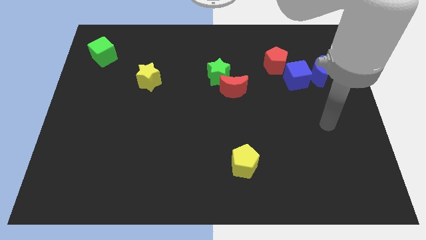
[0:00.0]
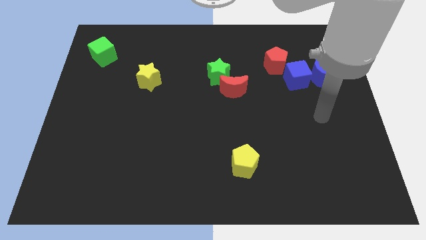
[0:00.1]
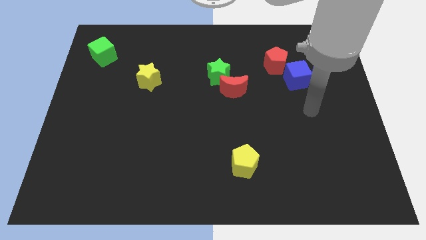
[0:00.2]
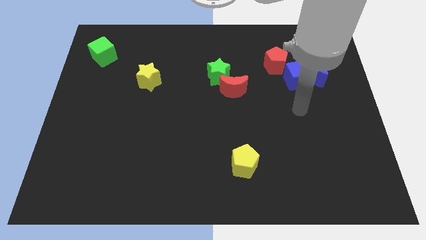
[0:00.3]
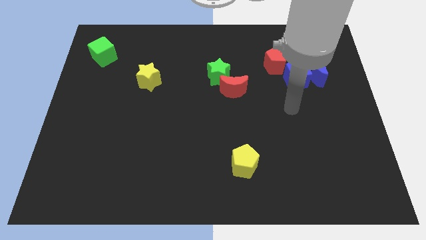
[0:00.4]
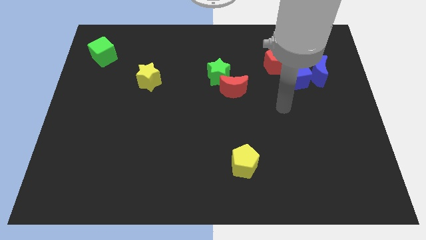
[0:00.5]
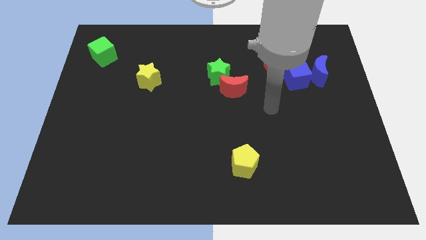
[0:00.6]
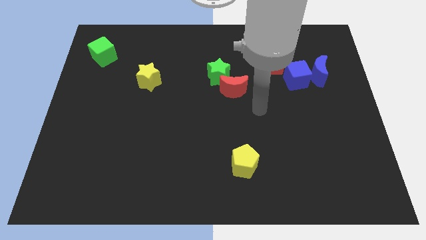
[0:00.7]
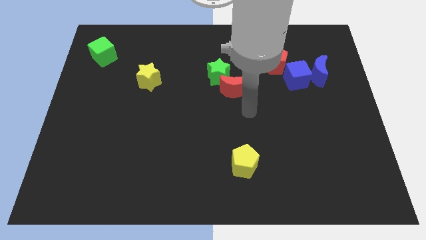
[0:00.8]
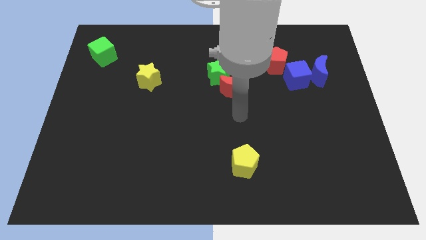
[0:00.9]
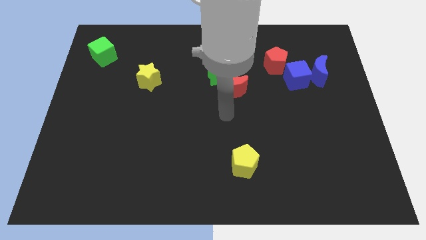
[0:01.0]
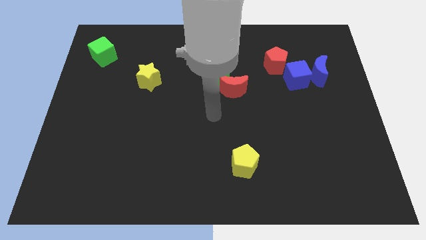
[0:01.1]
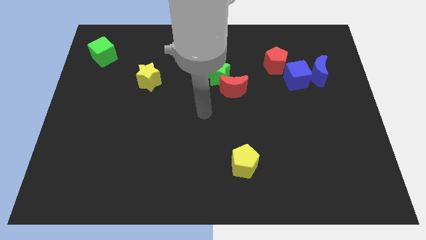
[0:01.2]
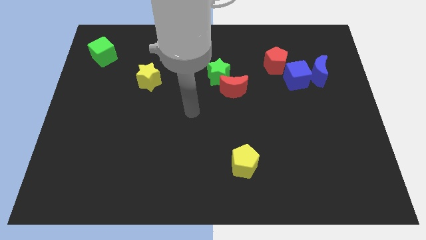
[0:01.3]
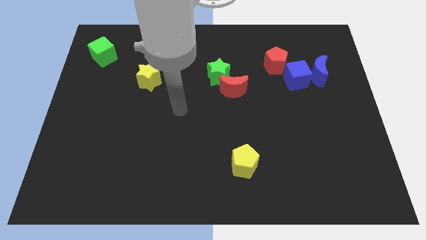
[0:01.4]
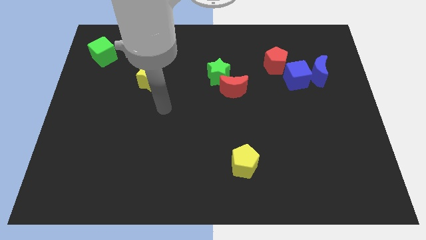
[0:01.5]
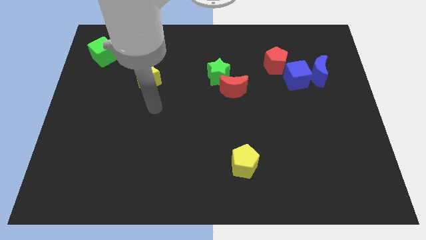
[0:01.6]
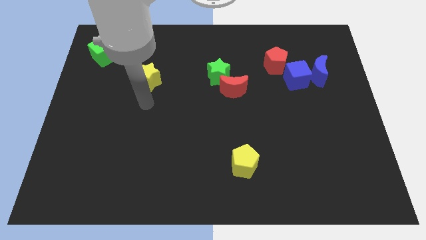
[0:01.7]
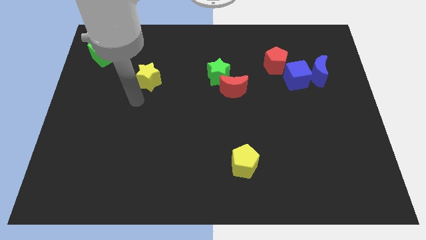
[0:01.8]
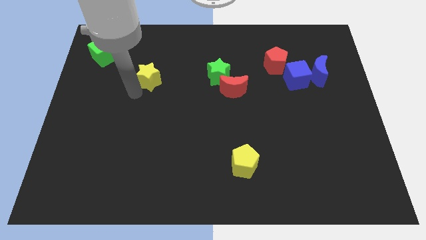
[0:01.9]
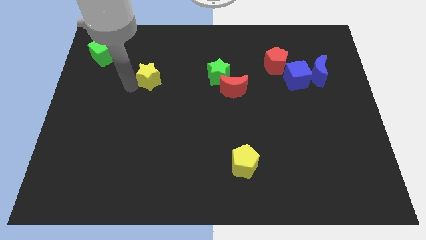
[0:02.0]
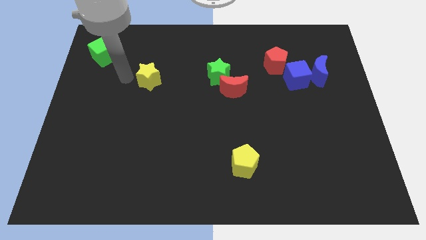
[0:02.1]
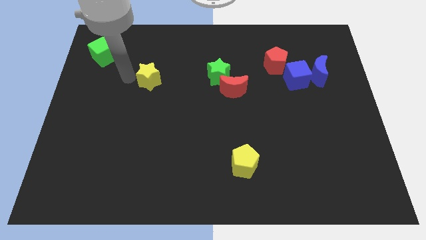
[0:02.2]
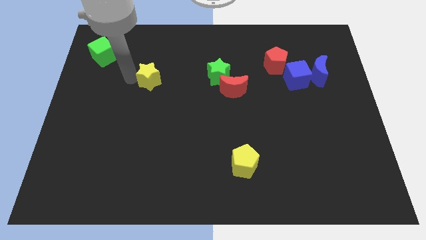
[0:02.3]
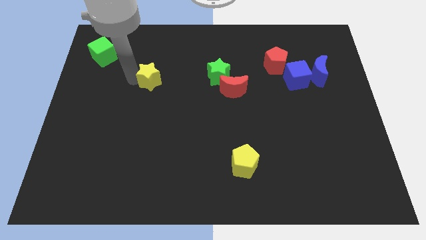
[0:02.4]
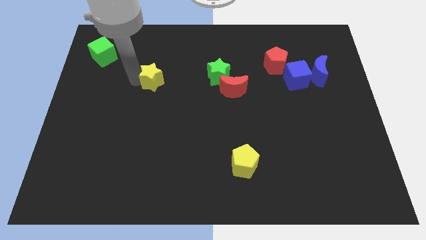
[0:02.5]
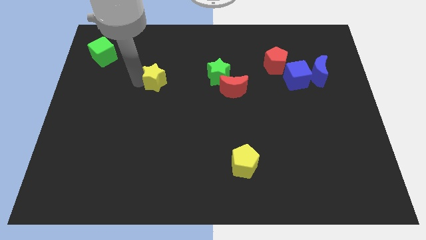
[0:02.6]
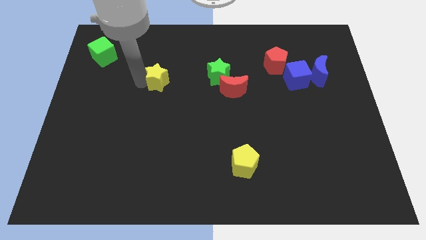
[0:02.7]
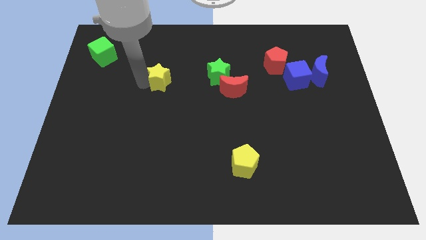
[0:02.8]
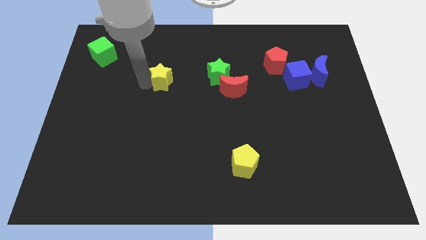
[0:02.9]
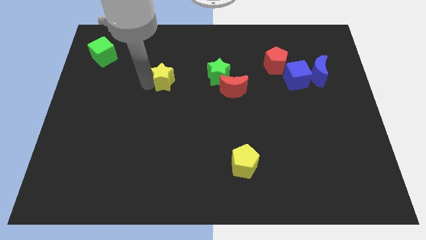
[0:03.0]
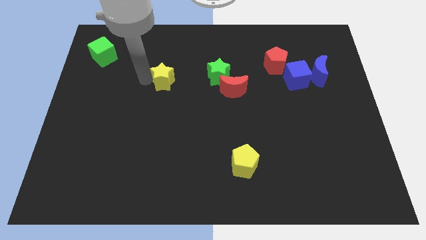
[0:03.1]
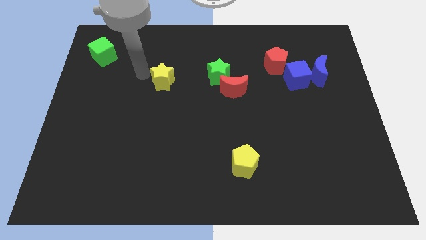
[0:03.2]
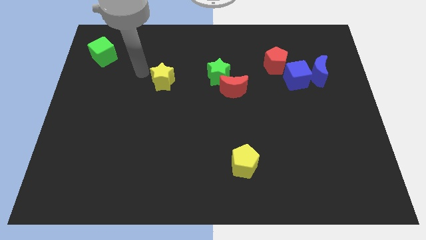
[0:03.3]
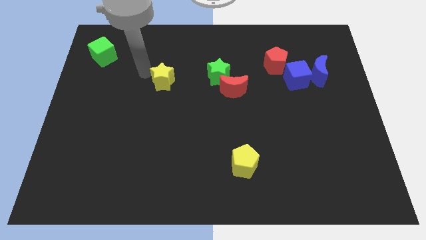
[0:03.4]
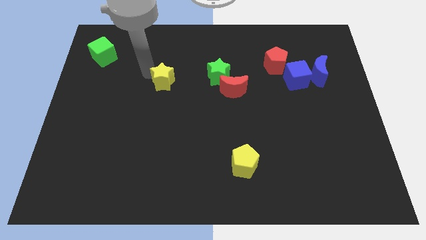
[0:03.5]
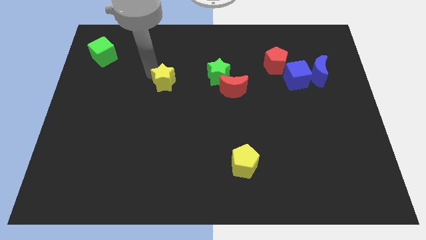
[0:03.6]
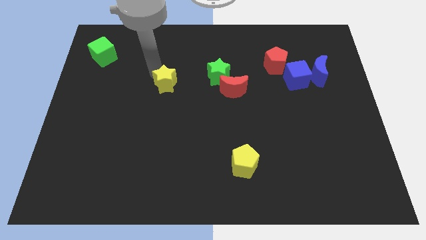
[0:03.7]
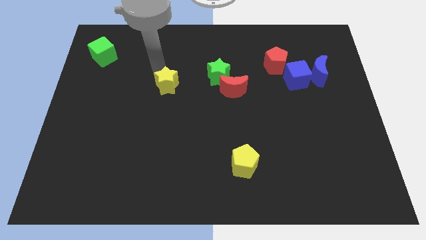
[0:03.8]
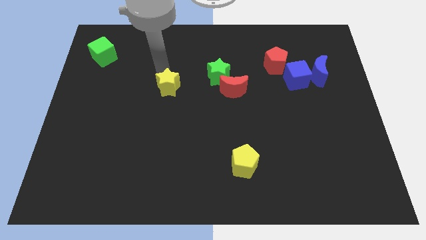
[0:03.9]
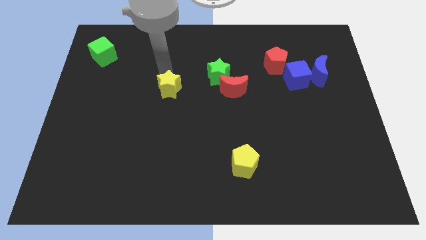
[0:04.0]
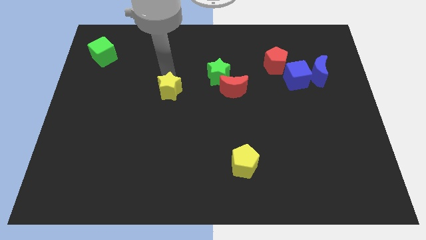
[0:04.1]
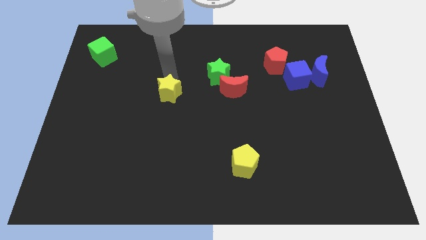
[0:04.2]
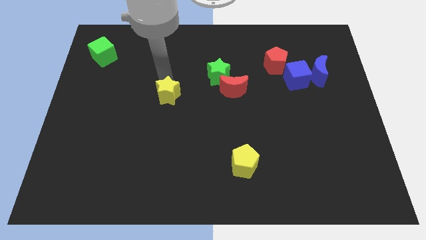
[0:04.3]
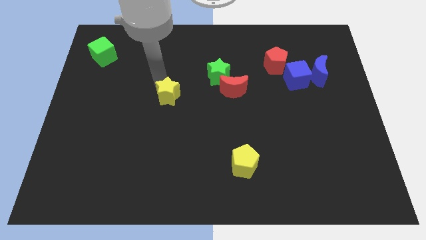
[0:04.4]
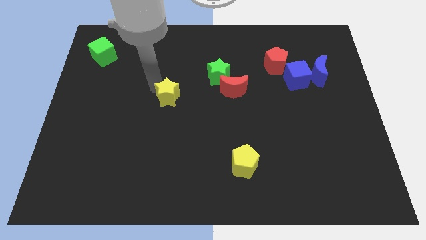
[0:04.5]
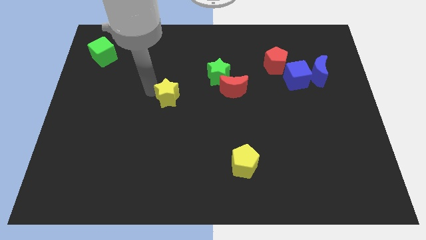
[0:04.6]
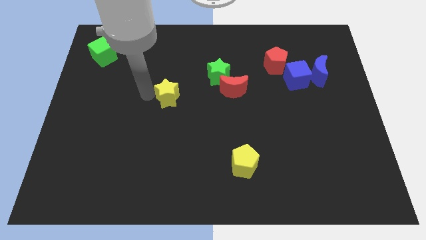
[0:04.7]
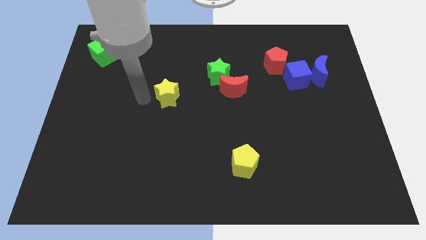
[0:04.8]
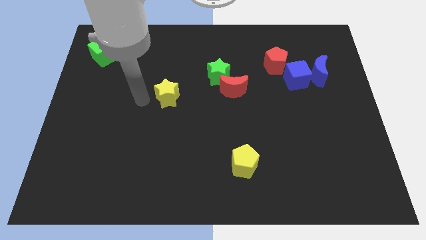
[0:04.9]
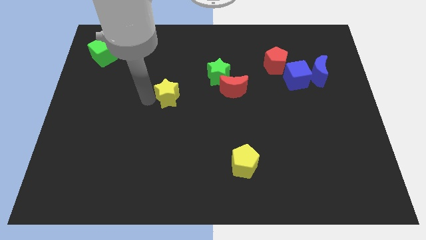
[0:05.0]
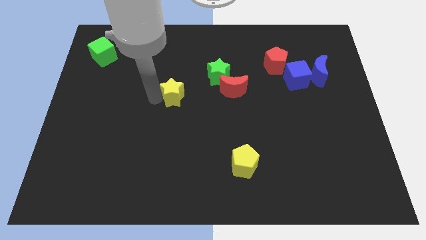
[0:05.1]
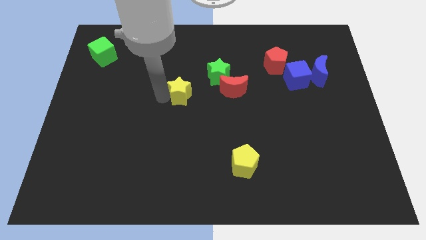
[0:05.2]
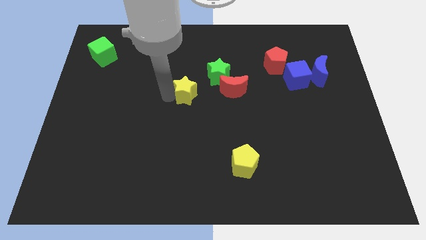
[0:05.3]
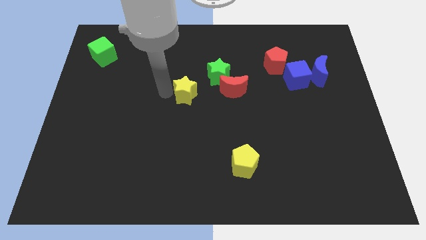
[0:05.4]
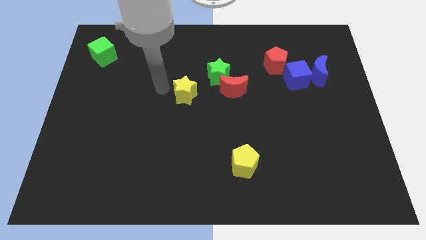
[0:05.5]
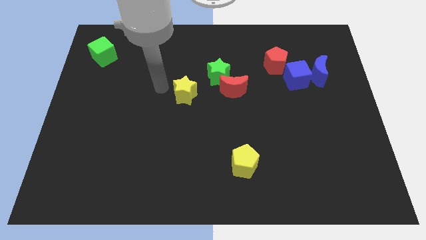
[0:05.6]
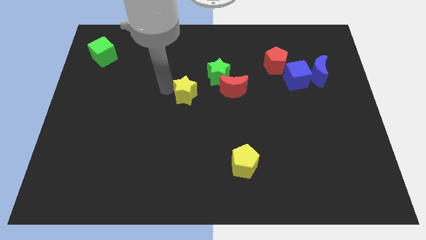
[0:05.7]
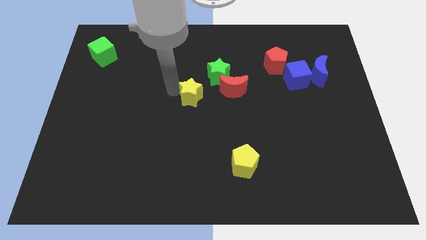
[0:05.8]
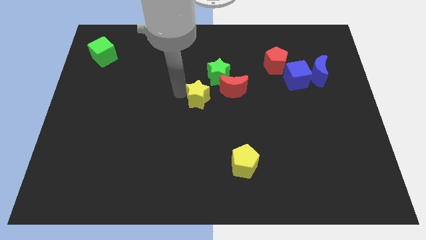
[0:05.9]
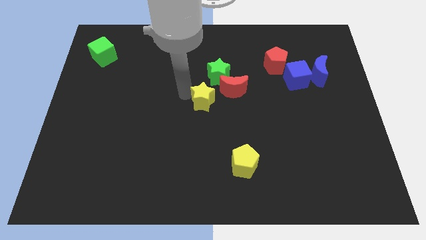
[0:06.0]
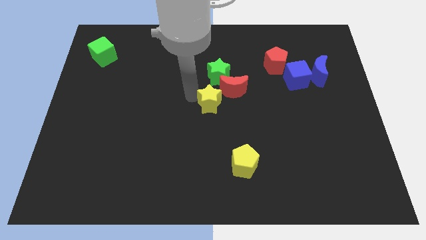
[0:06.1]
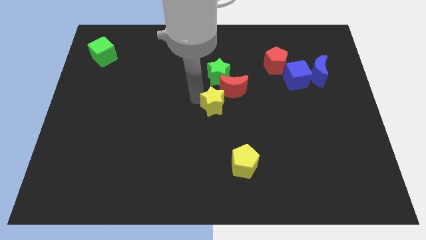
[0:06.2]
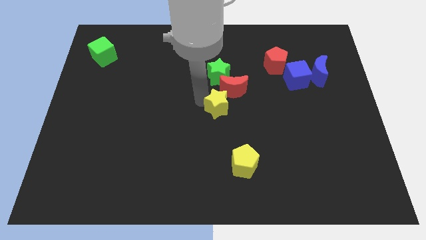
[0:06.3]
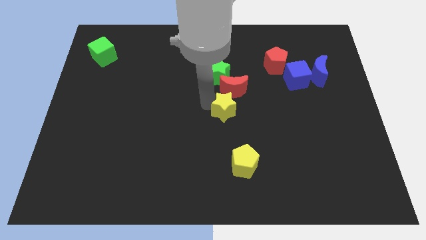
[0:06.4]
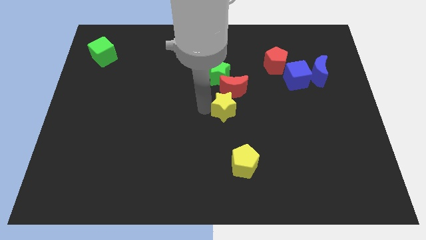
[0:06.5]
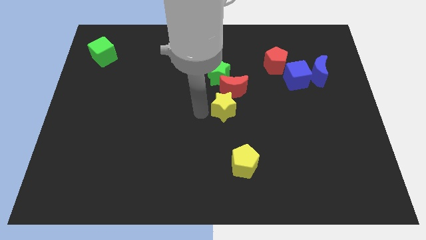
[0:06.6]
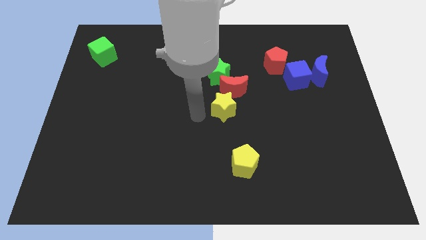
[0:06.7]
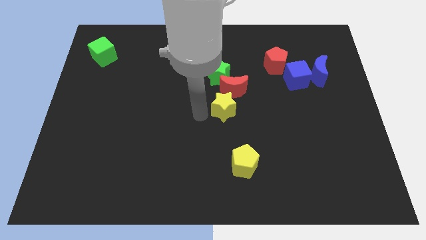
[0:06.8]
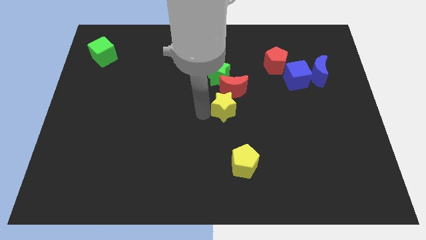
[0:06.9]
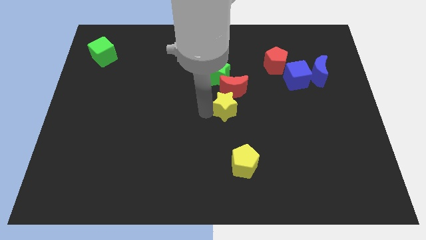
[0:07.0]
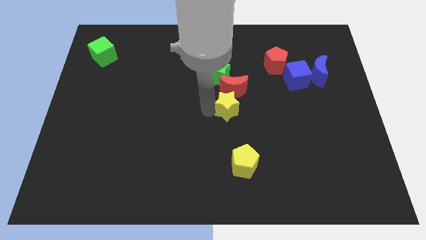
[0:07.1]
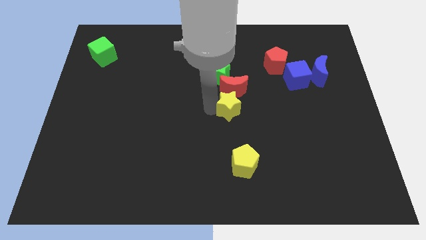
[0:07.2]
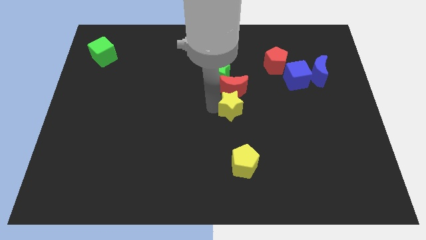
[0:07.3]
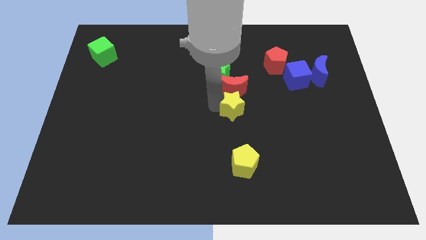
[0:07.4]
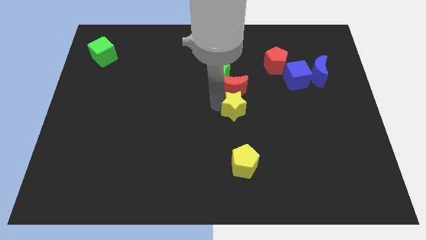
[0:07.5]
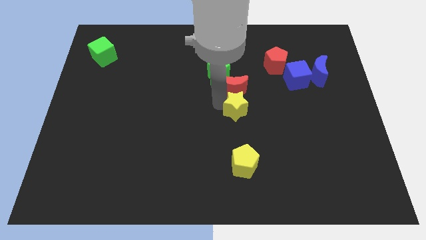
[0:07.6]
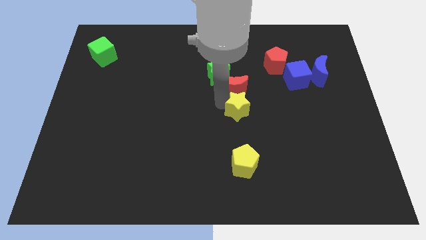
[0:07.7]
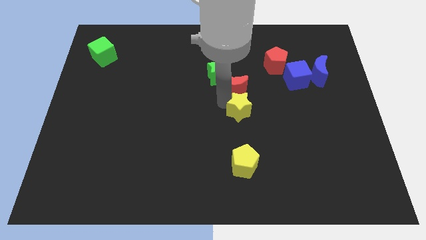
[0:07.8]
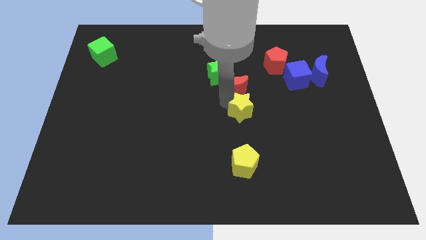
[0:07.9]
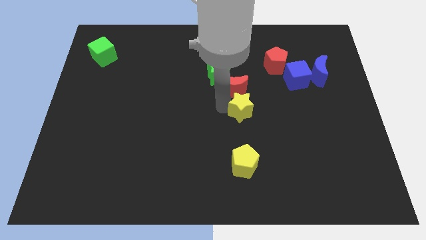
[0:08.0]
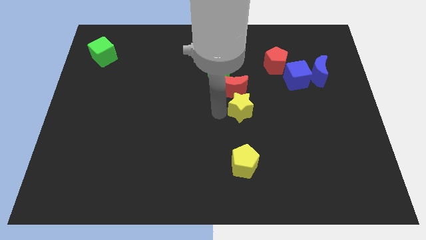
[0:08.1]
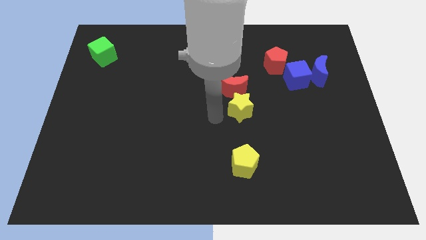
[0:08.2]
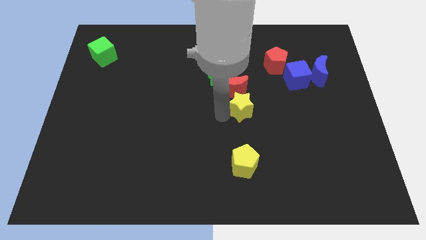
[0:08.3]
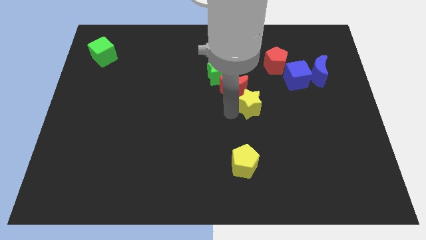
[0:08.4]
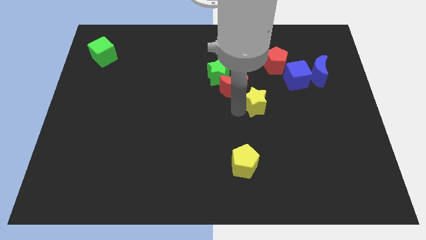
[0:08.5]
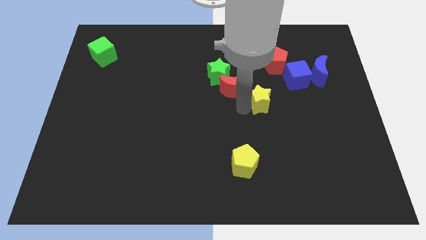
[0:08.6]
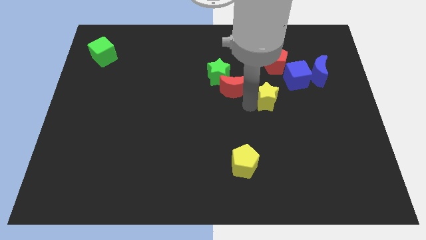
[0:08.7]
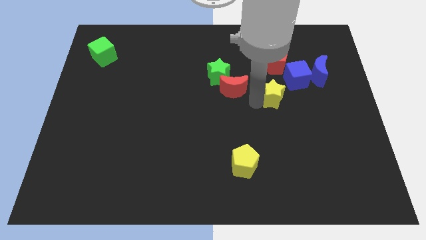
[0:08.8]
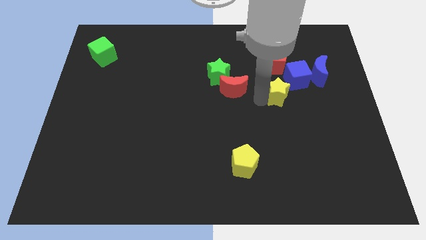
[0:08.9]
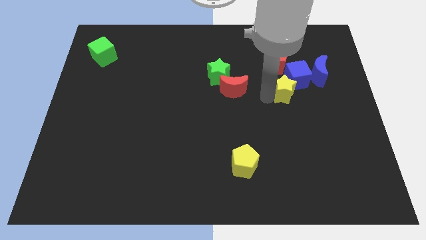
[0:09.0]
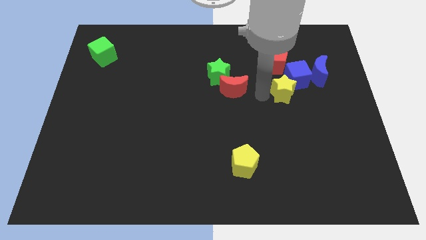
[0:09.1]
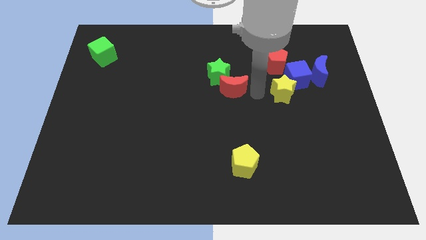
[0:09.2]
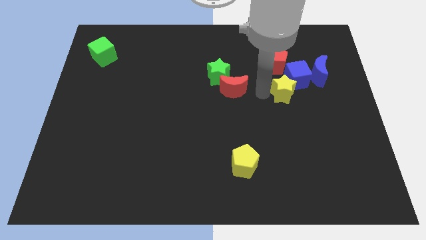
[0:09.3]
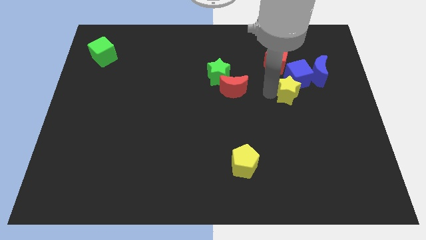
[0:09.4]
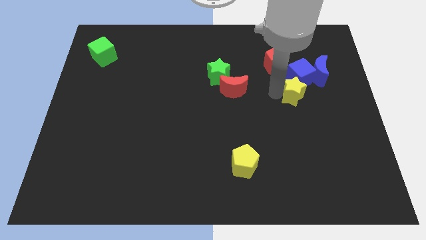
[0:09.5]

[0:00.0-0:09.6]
move the yellow star to the bottom right side of the red pentagon
